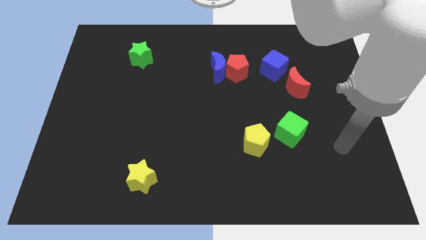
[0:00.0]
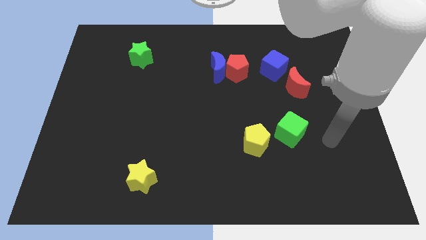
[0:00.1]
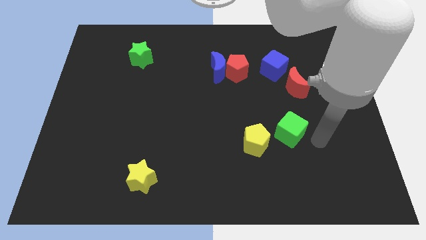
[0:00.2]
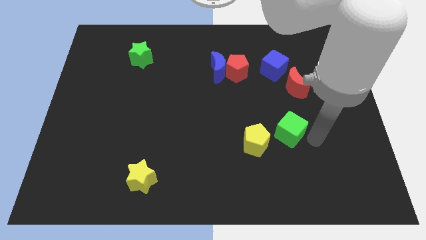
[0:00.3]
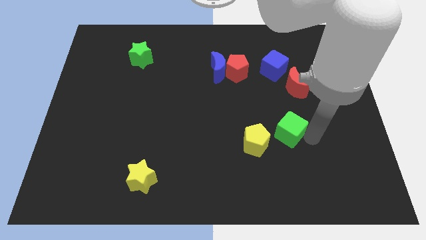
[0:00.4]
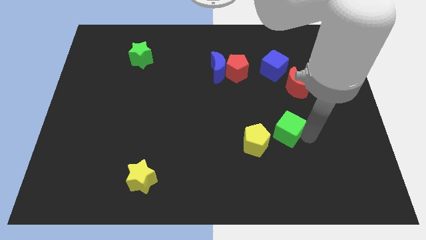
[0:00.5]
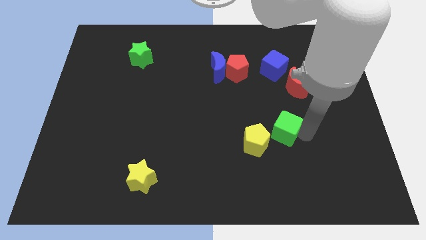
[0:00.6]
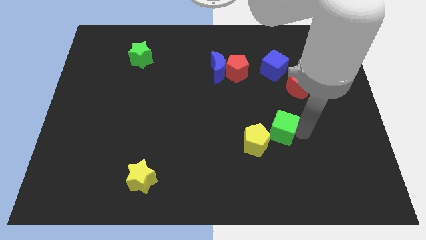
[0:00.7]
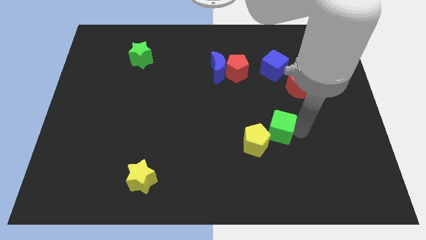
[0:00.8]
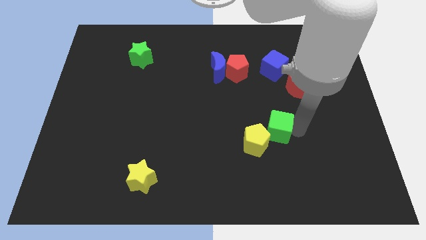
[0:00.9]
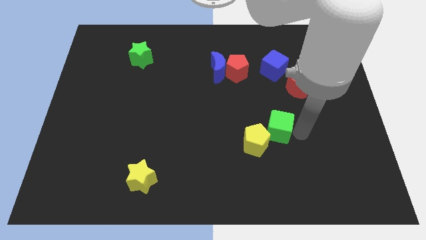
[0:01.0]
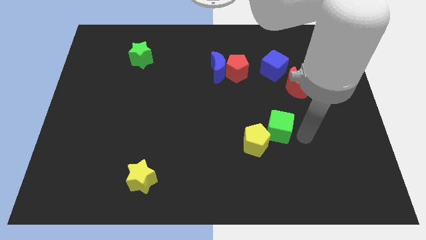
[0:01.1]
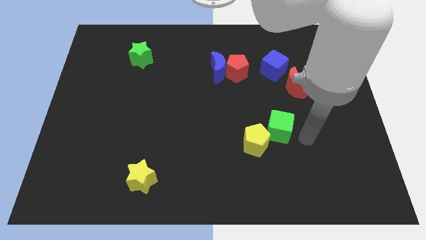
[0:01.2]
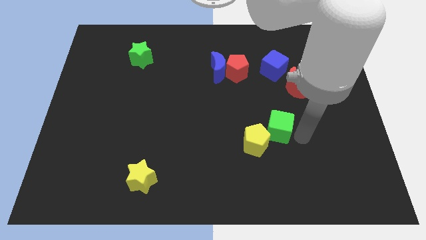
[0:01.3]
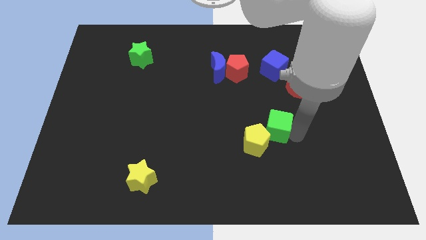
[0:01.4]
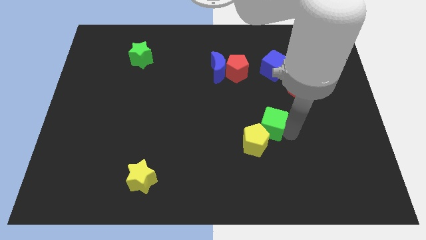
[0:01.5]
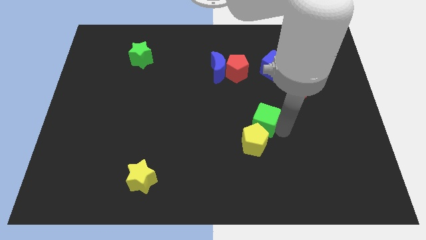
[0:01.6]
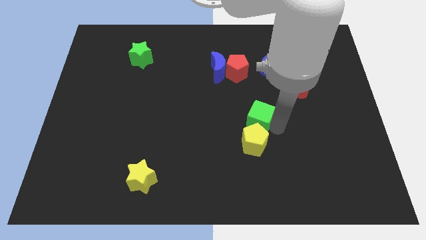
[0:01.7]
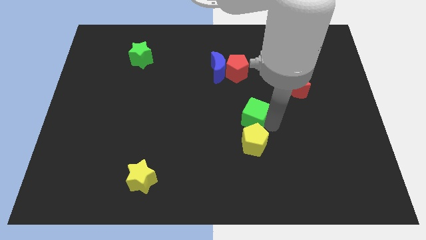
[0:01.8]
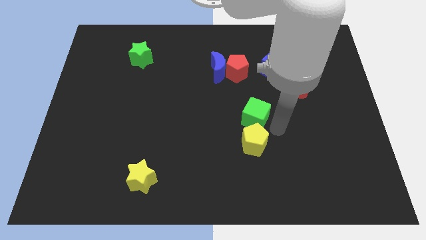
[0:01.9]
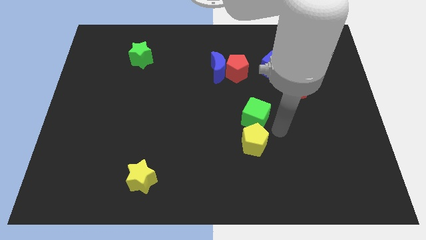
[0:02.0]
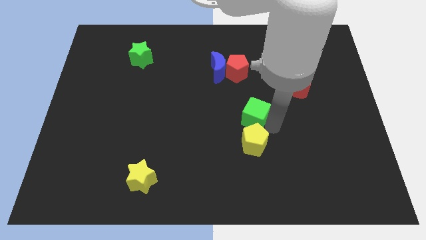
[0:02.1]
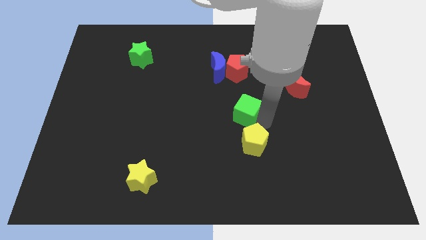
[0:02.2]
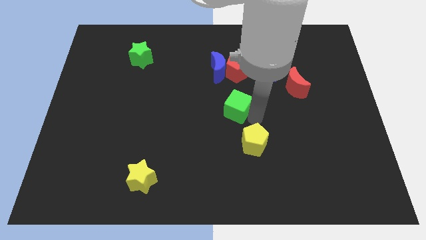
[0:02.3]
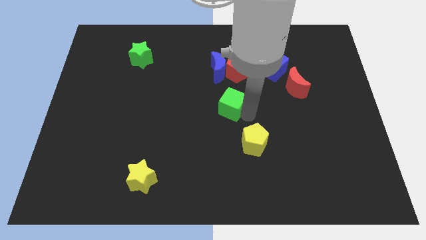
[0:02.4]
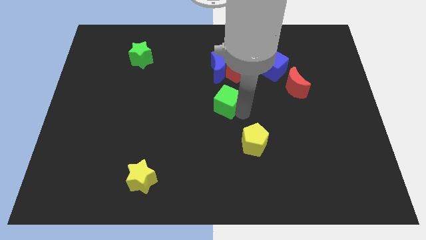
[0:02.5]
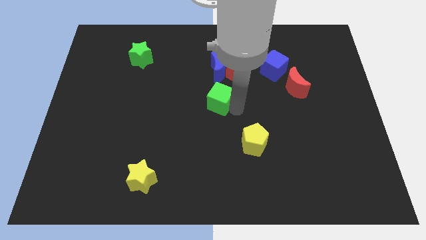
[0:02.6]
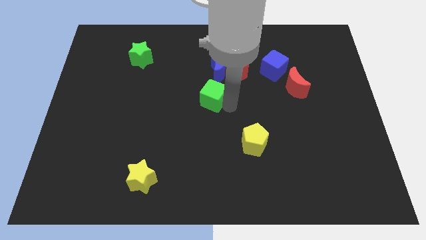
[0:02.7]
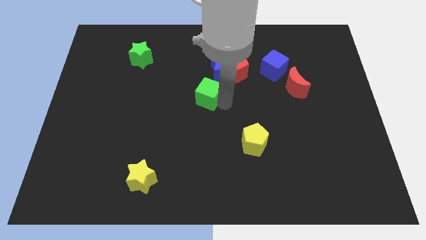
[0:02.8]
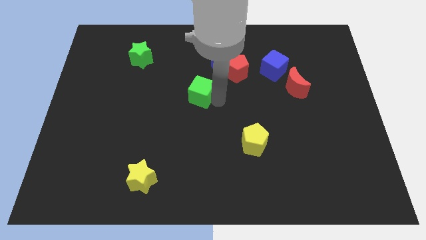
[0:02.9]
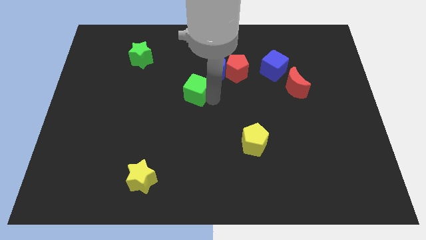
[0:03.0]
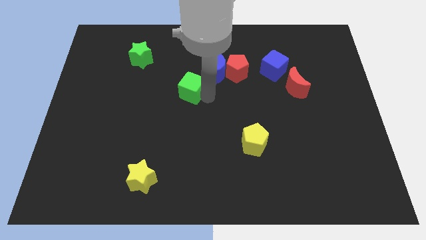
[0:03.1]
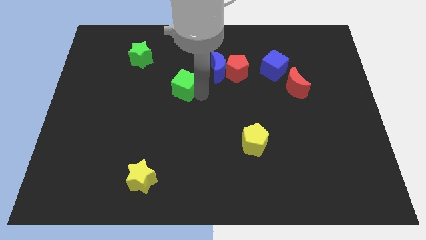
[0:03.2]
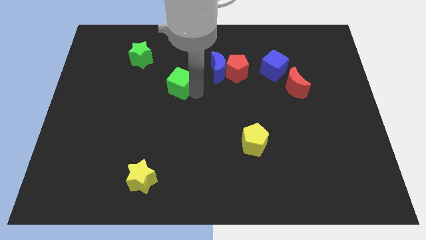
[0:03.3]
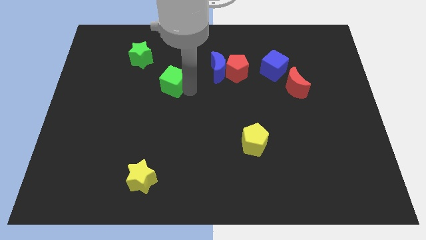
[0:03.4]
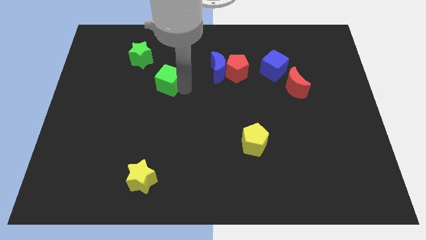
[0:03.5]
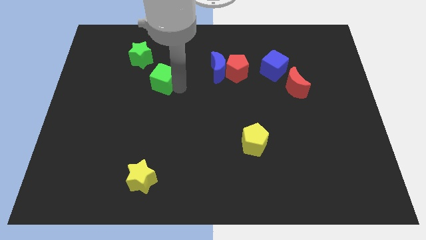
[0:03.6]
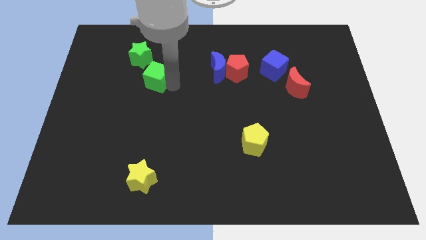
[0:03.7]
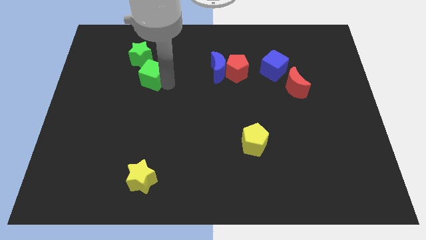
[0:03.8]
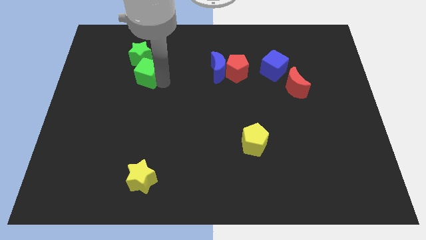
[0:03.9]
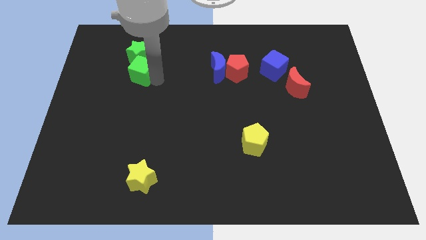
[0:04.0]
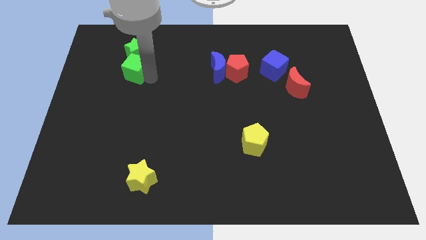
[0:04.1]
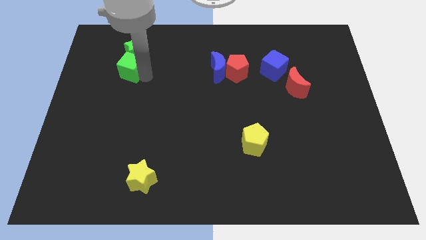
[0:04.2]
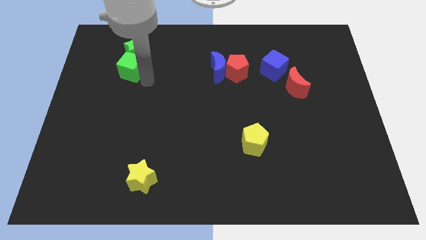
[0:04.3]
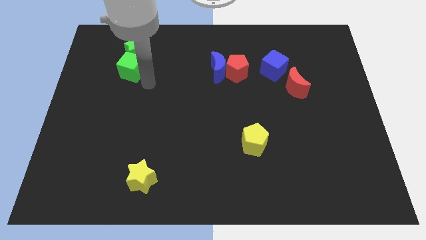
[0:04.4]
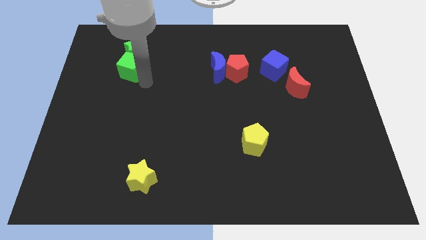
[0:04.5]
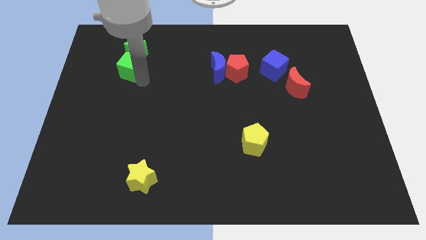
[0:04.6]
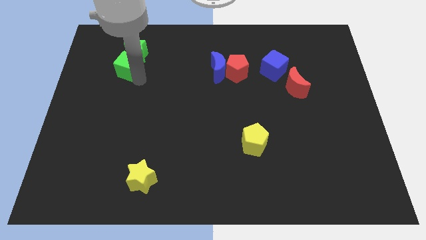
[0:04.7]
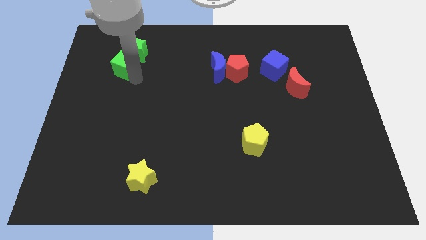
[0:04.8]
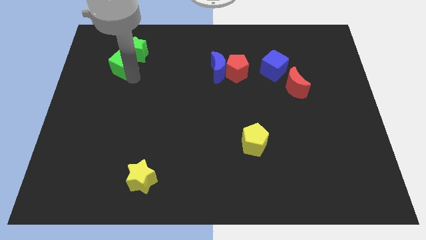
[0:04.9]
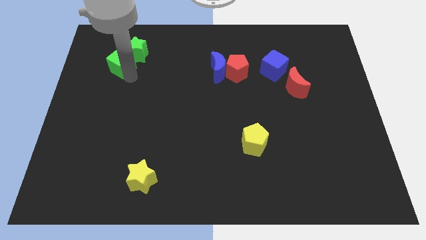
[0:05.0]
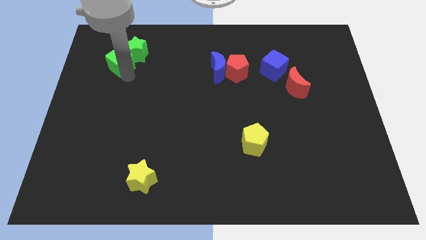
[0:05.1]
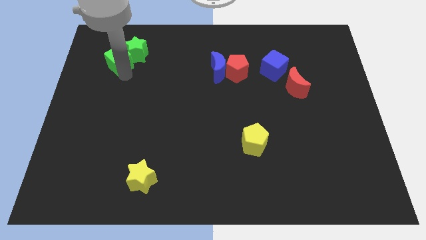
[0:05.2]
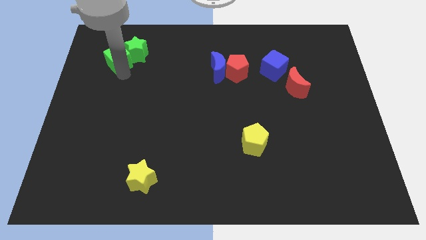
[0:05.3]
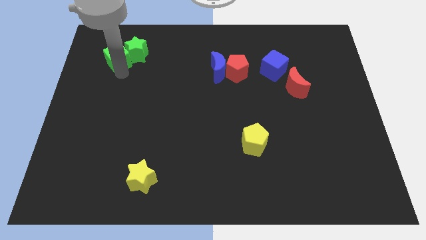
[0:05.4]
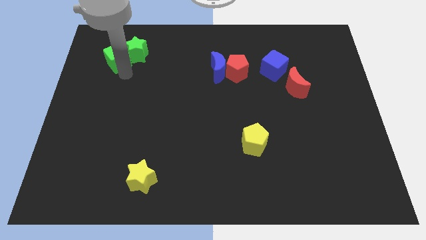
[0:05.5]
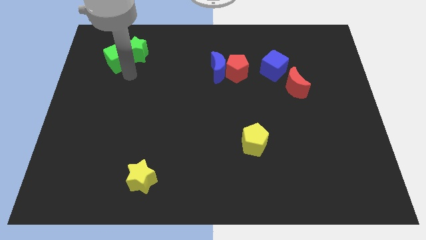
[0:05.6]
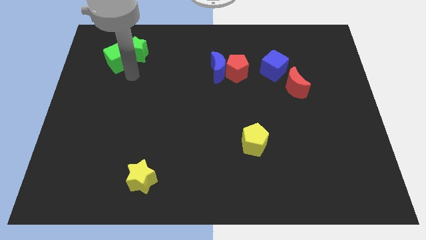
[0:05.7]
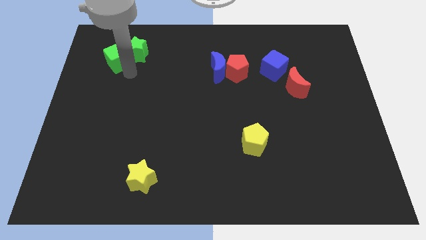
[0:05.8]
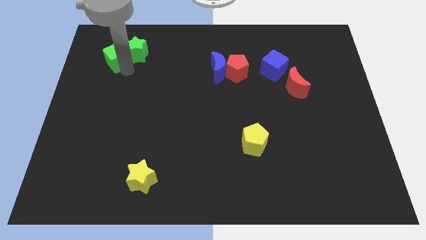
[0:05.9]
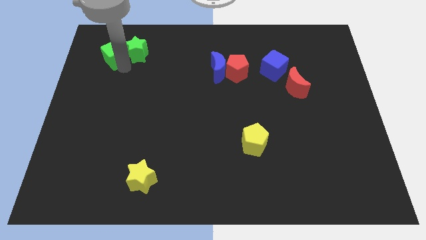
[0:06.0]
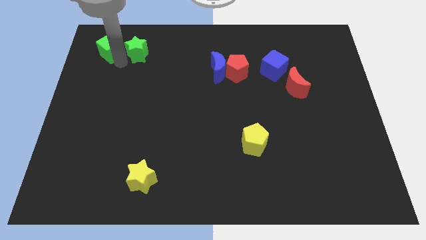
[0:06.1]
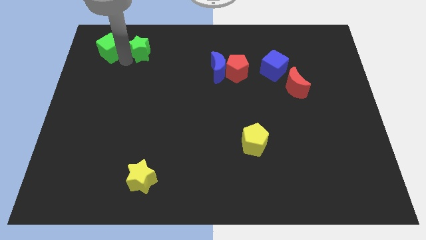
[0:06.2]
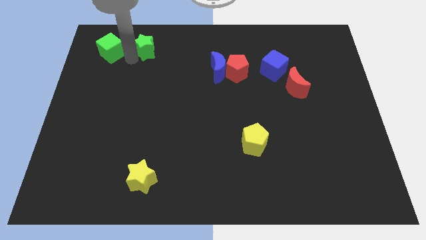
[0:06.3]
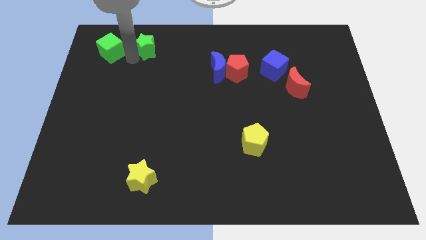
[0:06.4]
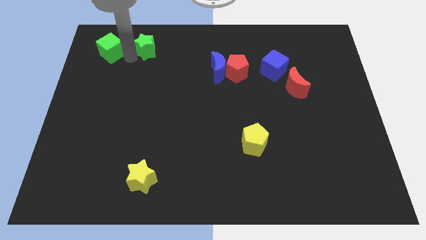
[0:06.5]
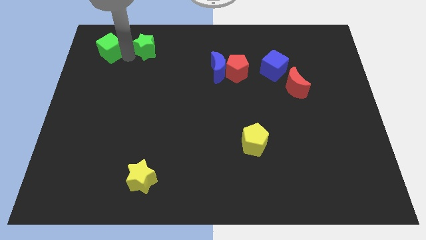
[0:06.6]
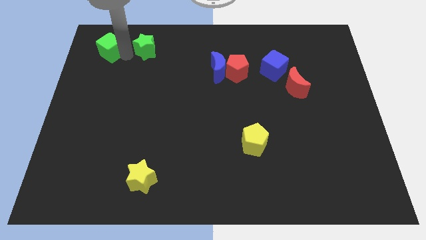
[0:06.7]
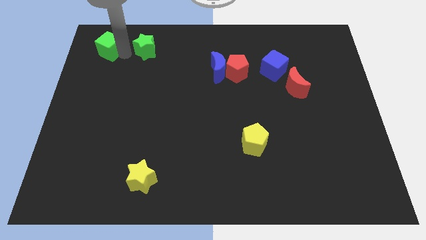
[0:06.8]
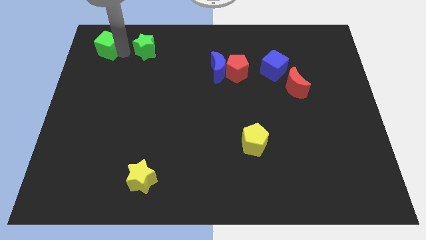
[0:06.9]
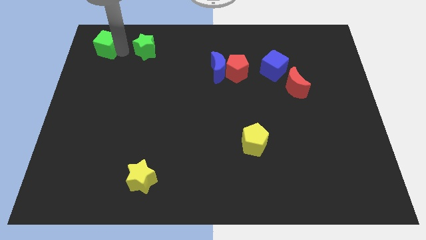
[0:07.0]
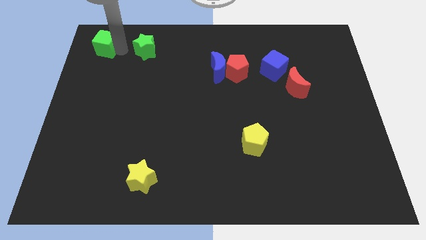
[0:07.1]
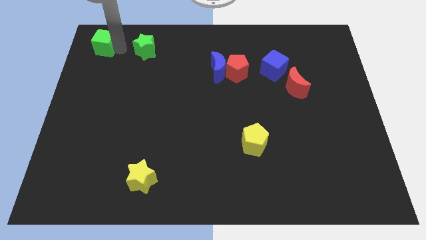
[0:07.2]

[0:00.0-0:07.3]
slide the green cube to the top left of the board

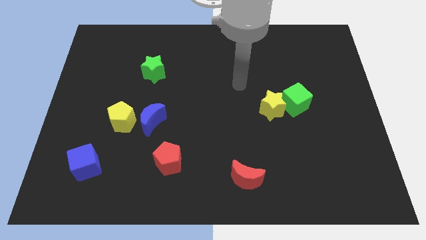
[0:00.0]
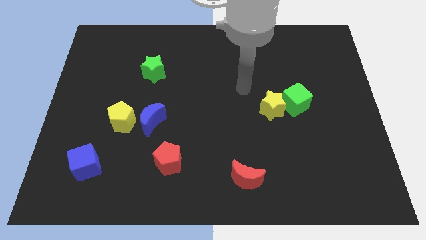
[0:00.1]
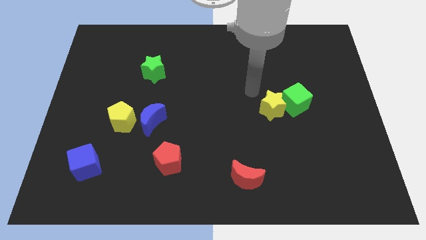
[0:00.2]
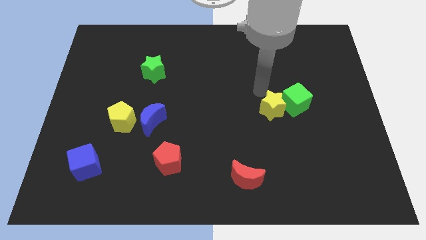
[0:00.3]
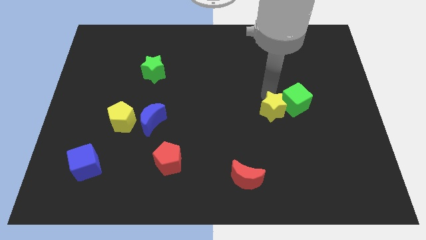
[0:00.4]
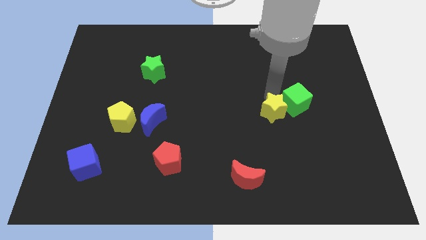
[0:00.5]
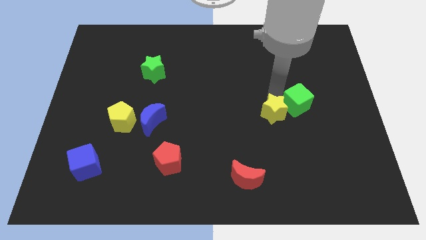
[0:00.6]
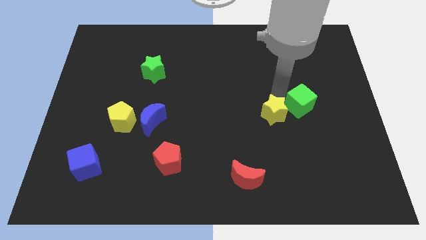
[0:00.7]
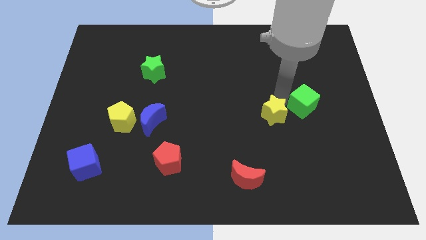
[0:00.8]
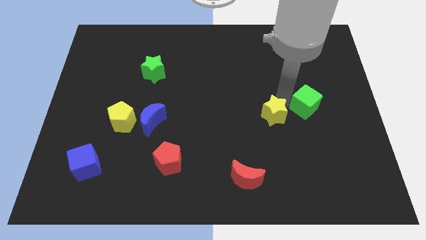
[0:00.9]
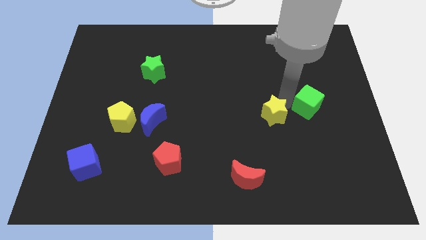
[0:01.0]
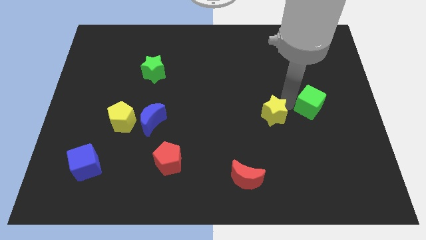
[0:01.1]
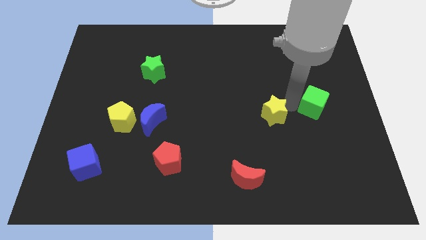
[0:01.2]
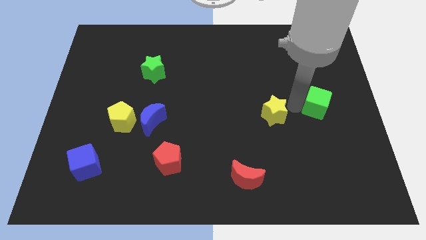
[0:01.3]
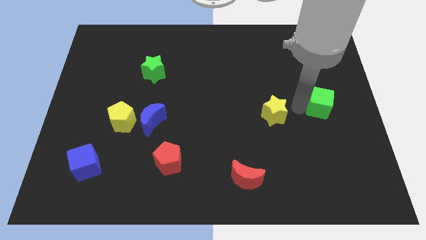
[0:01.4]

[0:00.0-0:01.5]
push the green cube to the right side
